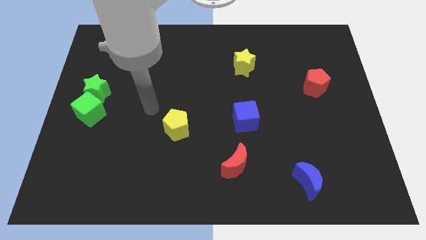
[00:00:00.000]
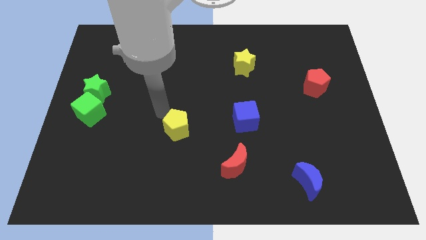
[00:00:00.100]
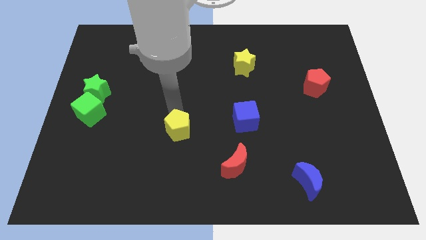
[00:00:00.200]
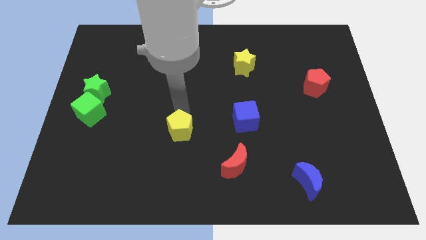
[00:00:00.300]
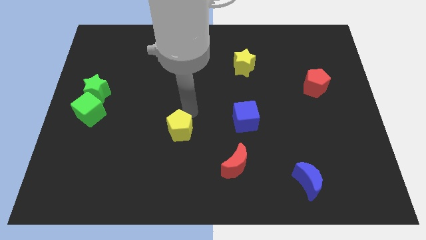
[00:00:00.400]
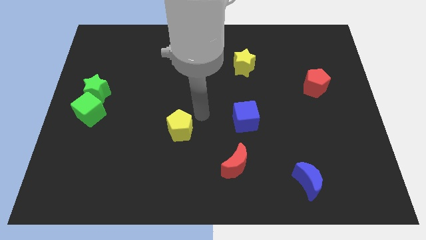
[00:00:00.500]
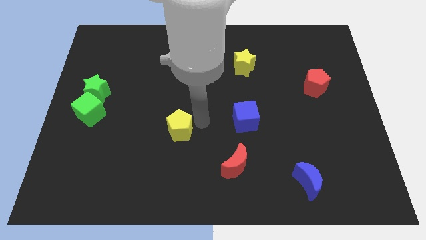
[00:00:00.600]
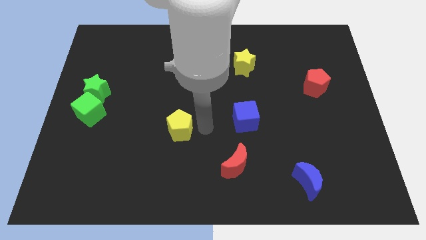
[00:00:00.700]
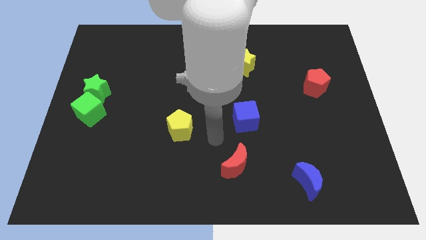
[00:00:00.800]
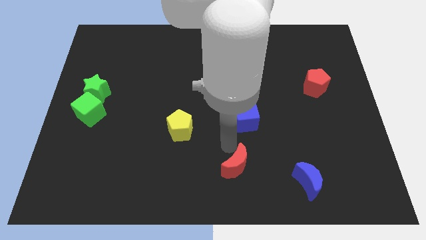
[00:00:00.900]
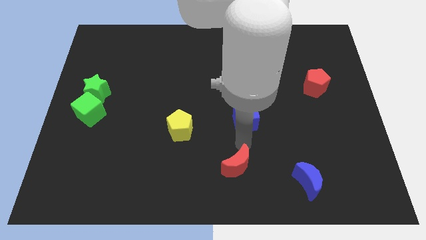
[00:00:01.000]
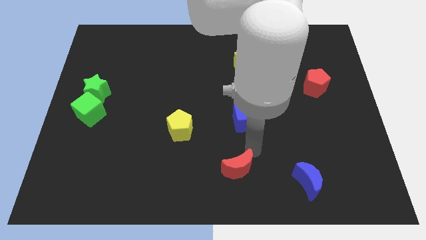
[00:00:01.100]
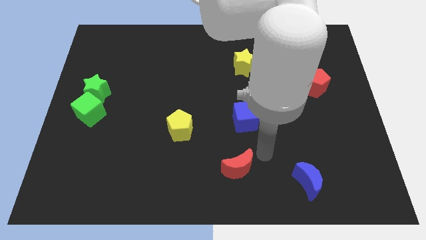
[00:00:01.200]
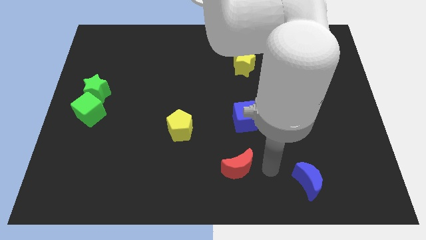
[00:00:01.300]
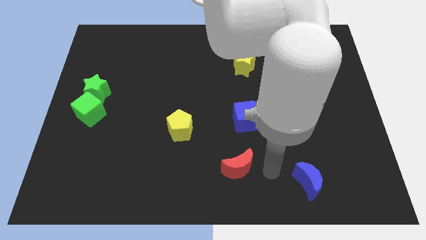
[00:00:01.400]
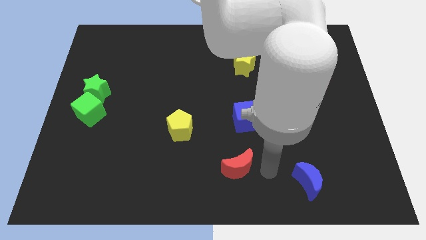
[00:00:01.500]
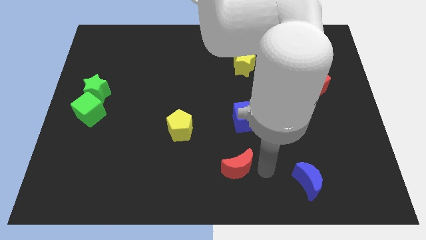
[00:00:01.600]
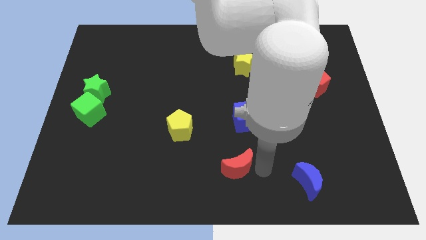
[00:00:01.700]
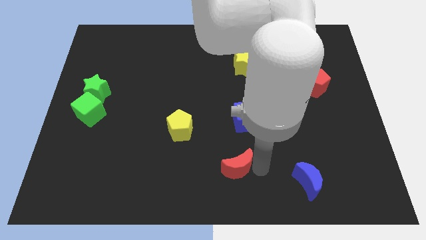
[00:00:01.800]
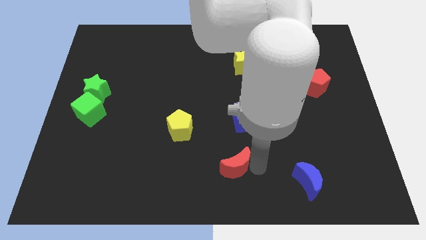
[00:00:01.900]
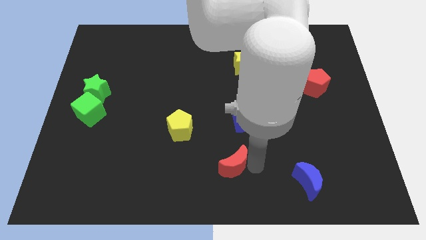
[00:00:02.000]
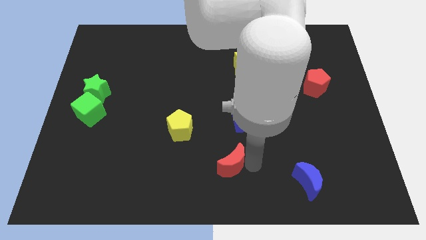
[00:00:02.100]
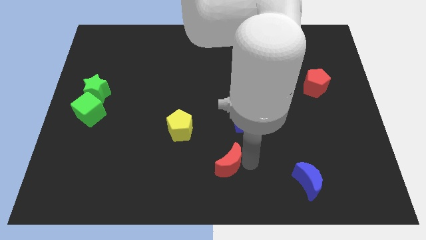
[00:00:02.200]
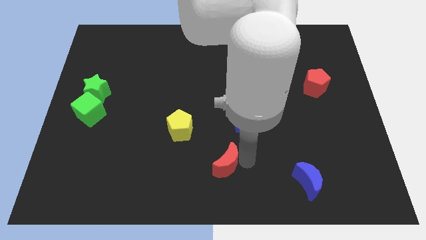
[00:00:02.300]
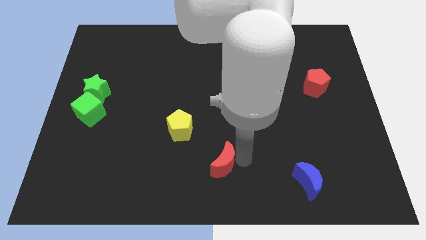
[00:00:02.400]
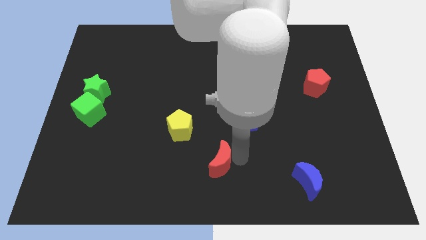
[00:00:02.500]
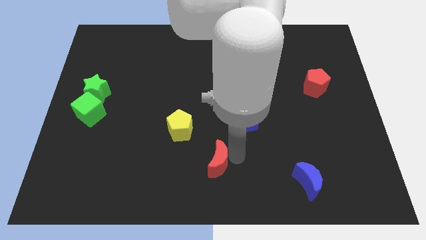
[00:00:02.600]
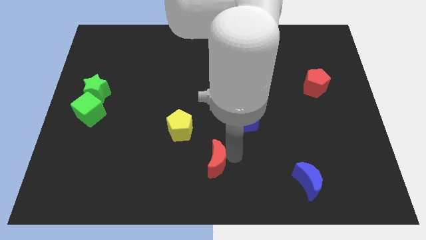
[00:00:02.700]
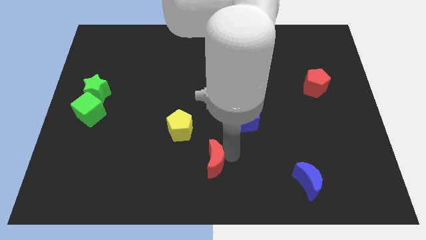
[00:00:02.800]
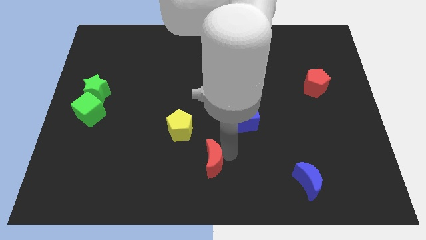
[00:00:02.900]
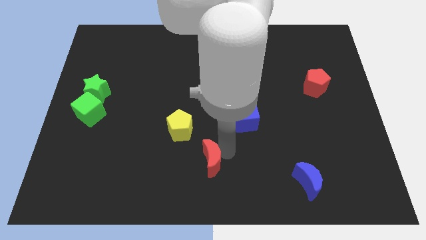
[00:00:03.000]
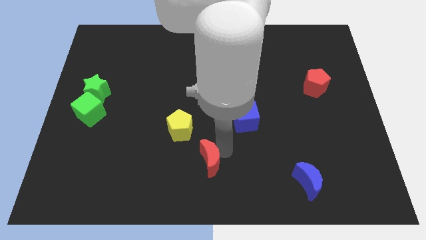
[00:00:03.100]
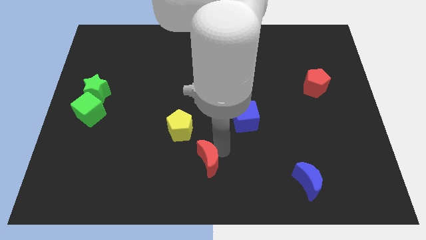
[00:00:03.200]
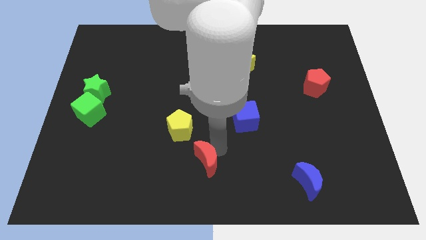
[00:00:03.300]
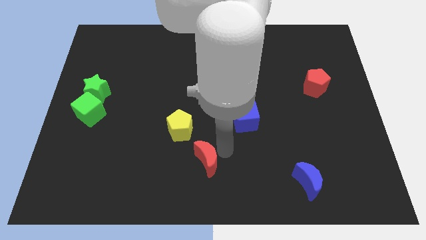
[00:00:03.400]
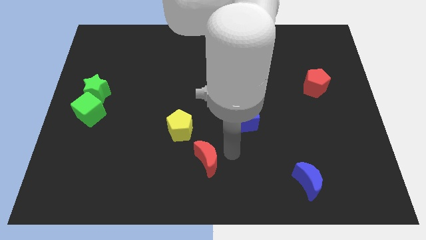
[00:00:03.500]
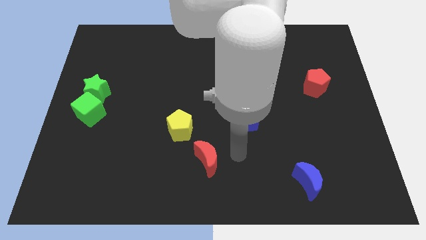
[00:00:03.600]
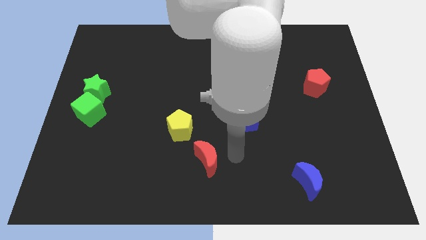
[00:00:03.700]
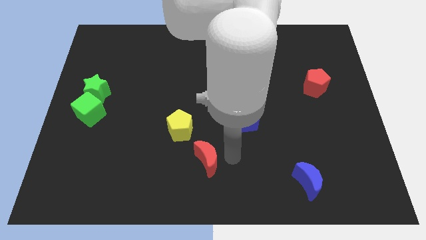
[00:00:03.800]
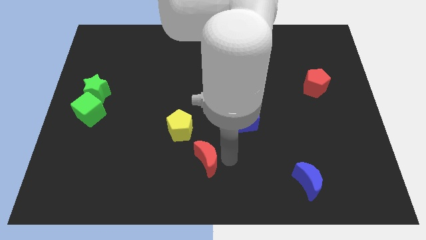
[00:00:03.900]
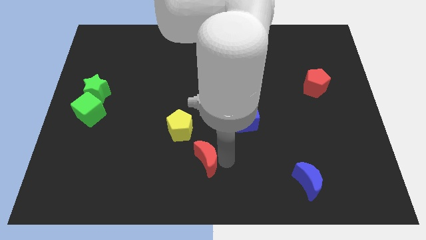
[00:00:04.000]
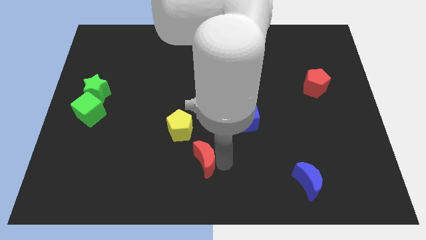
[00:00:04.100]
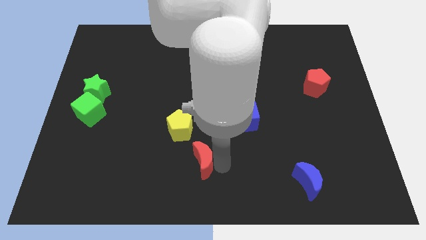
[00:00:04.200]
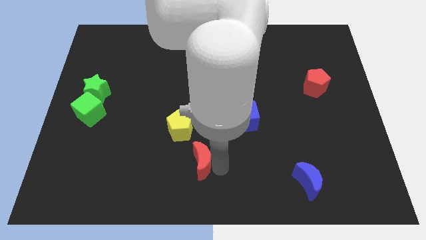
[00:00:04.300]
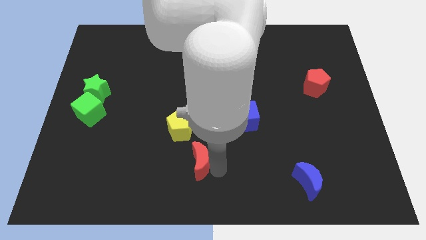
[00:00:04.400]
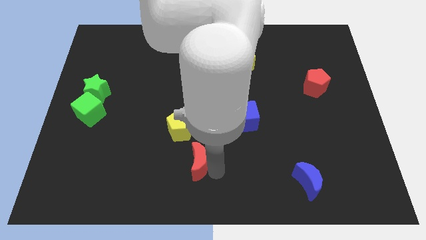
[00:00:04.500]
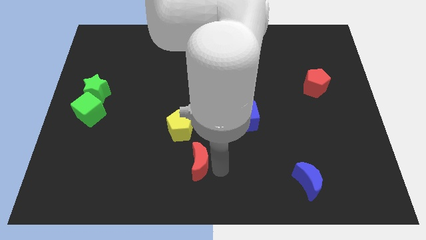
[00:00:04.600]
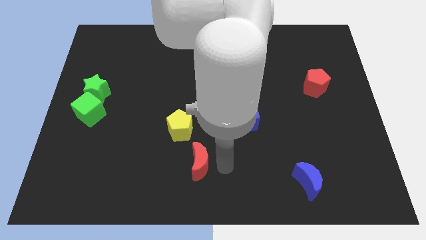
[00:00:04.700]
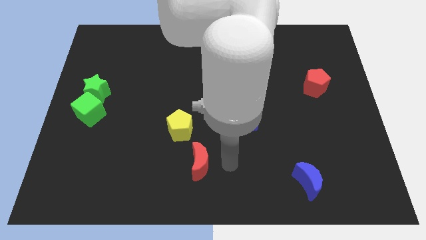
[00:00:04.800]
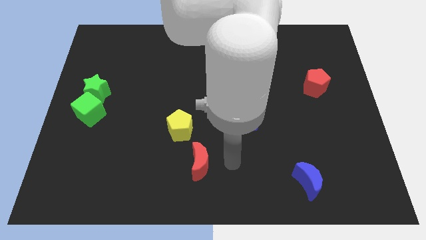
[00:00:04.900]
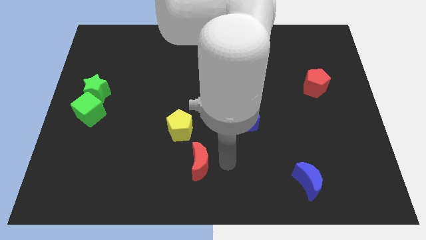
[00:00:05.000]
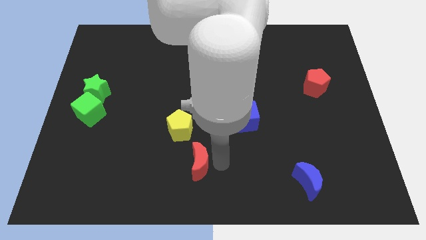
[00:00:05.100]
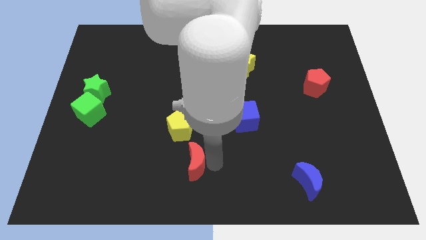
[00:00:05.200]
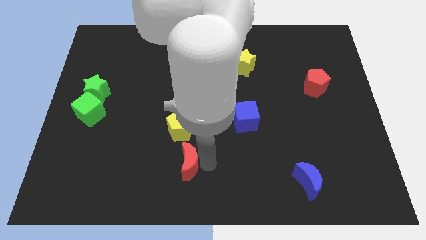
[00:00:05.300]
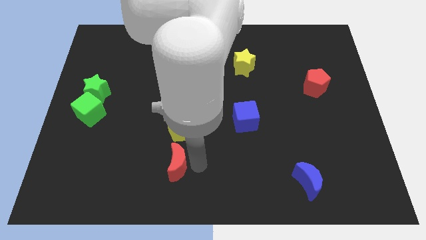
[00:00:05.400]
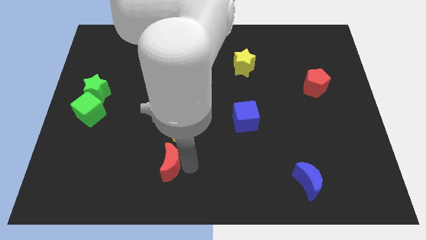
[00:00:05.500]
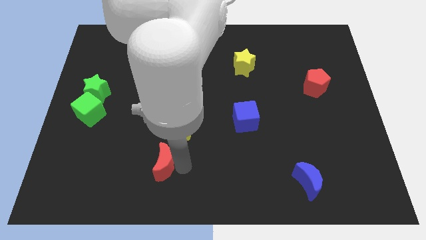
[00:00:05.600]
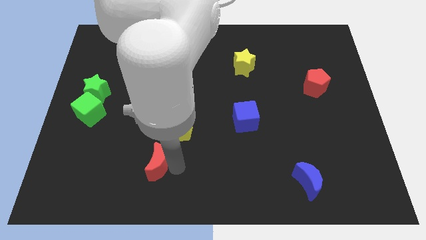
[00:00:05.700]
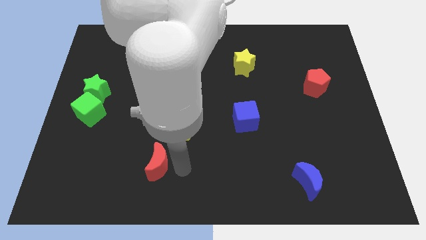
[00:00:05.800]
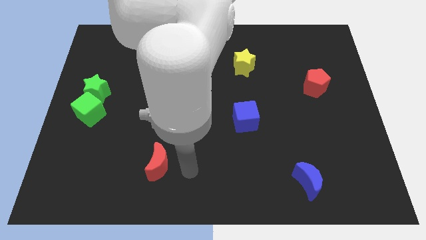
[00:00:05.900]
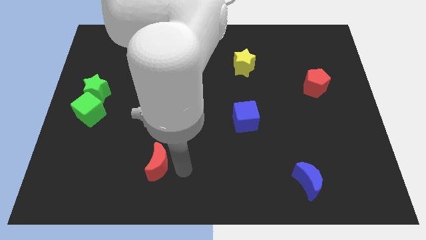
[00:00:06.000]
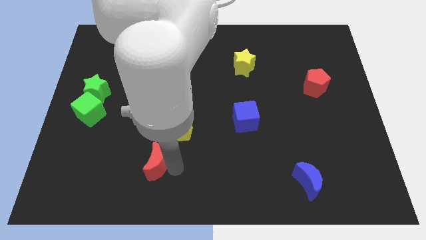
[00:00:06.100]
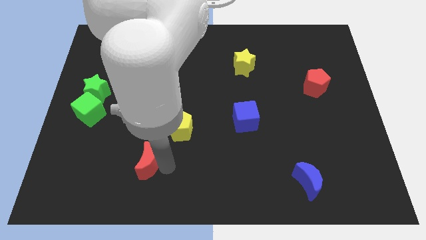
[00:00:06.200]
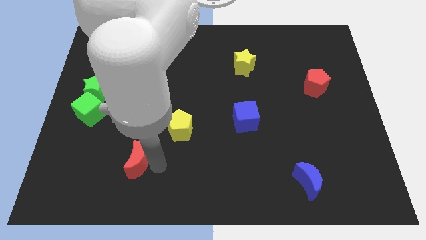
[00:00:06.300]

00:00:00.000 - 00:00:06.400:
slide the red moon to the left

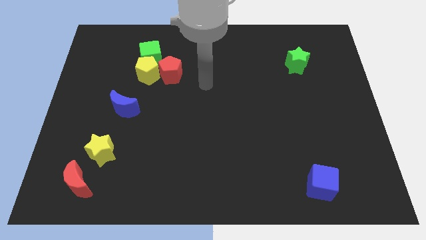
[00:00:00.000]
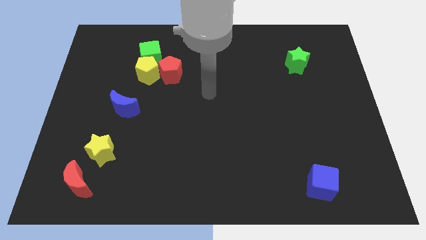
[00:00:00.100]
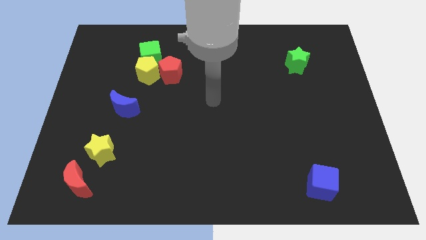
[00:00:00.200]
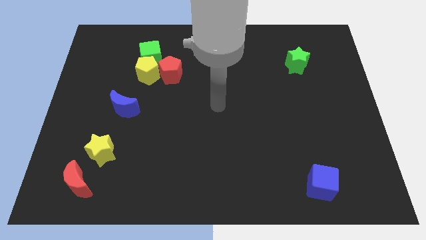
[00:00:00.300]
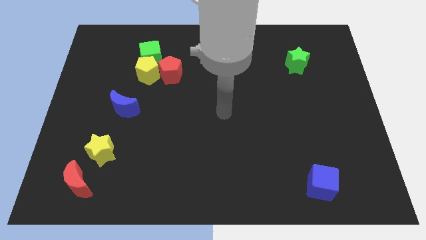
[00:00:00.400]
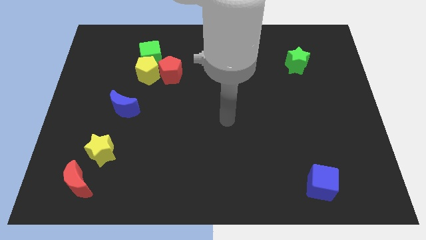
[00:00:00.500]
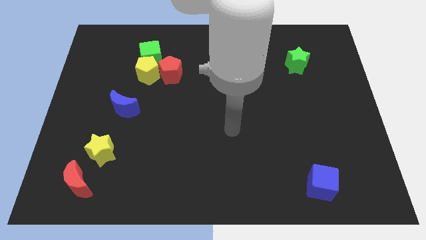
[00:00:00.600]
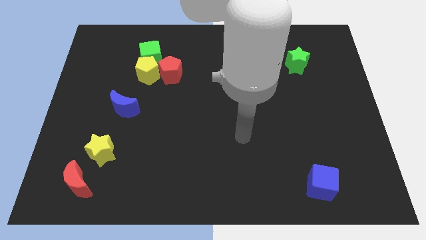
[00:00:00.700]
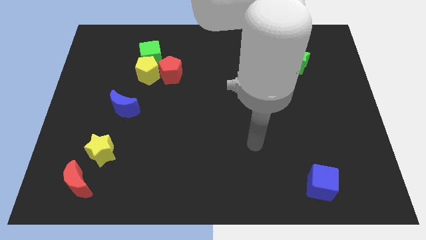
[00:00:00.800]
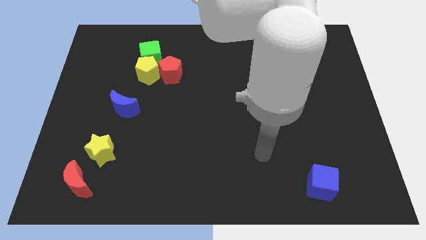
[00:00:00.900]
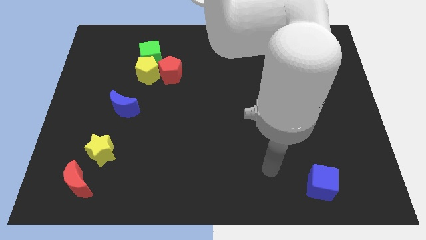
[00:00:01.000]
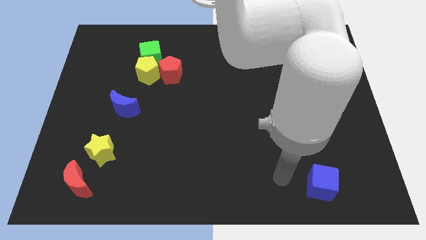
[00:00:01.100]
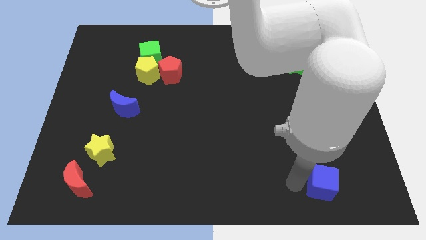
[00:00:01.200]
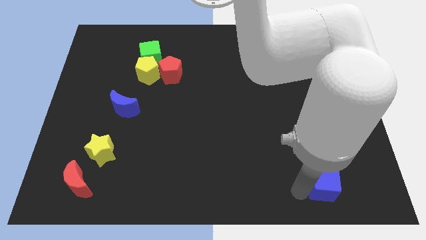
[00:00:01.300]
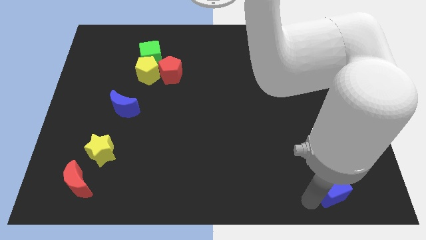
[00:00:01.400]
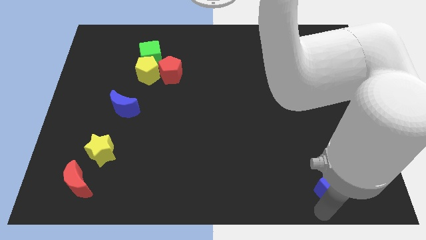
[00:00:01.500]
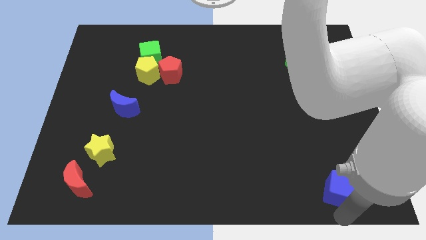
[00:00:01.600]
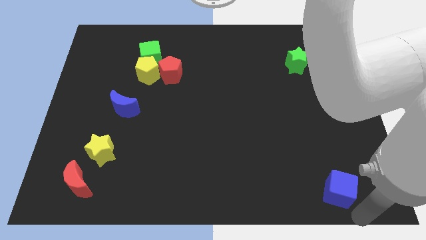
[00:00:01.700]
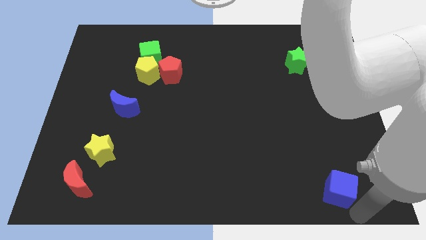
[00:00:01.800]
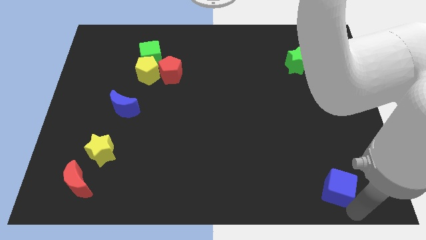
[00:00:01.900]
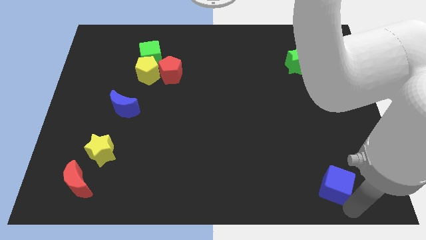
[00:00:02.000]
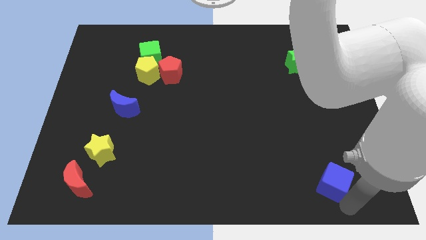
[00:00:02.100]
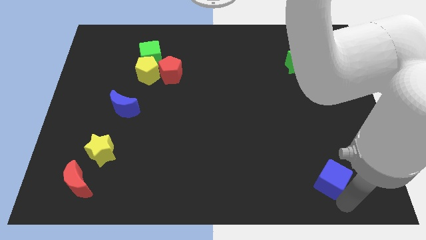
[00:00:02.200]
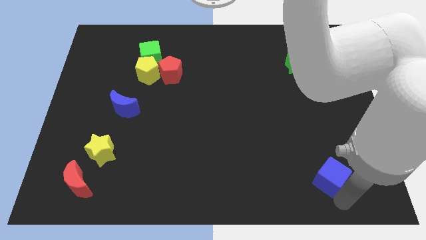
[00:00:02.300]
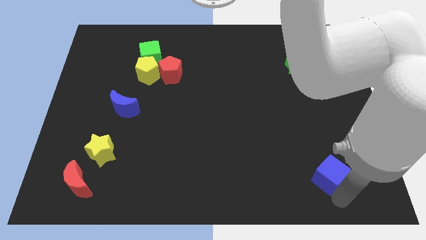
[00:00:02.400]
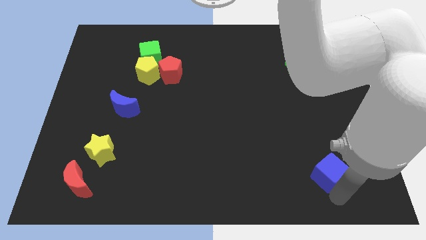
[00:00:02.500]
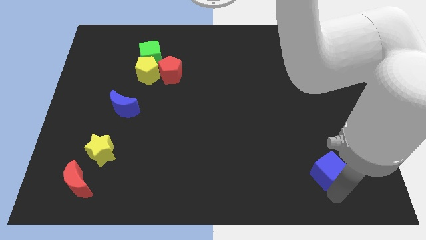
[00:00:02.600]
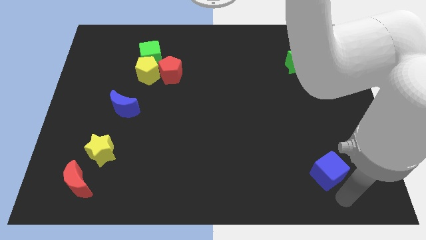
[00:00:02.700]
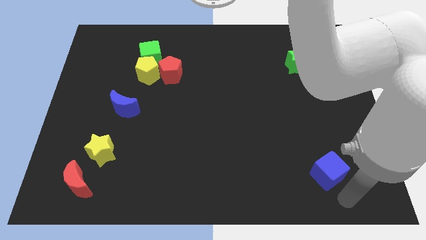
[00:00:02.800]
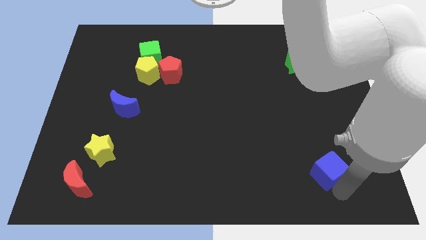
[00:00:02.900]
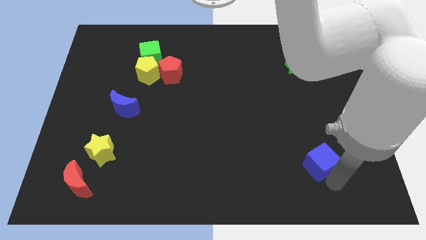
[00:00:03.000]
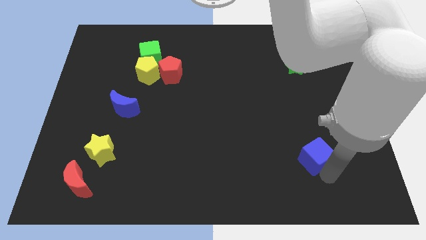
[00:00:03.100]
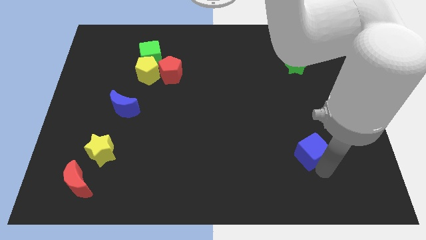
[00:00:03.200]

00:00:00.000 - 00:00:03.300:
push the blue cube upwards a little
